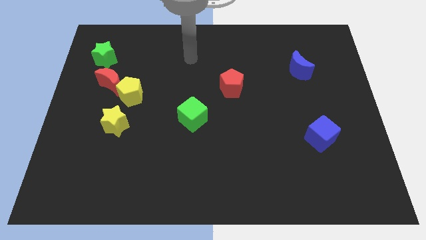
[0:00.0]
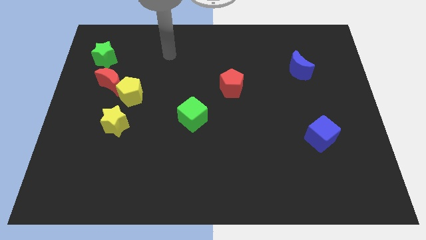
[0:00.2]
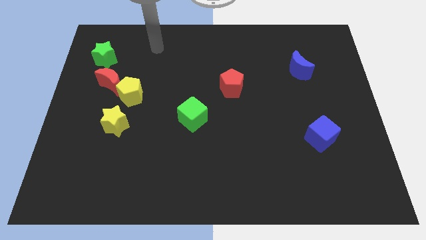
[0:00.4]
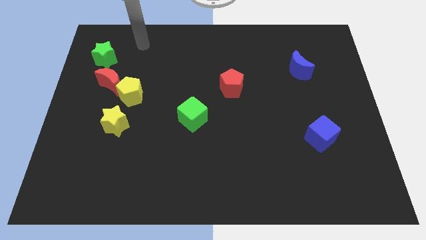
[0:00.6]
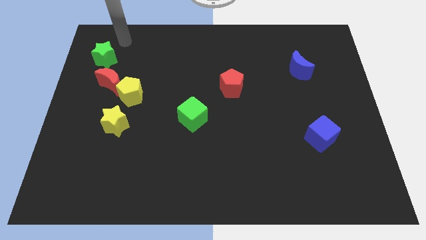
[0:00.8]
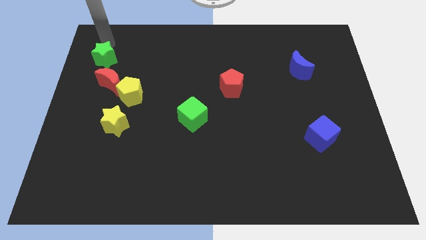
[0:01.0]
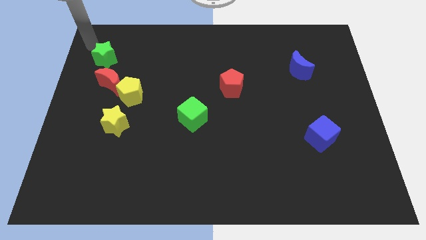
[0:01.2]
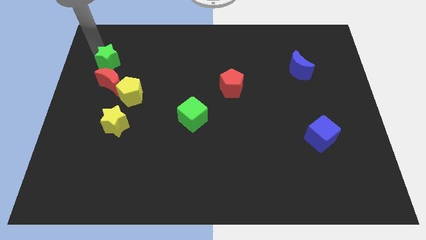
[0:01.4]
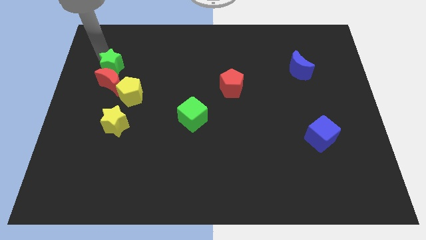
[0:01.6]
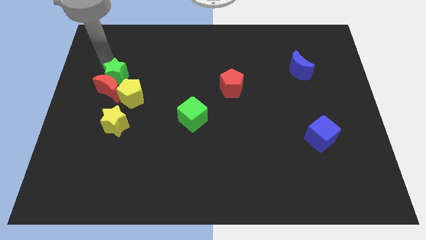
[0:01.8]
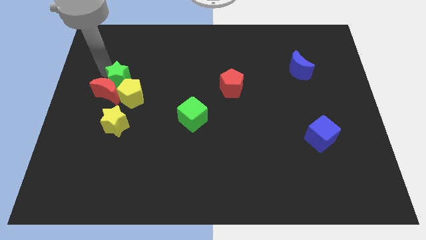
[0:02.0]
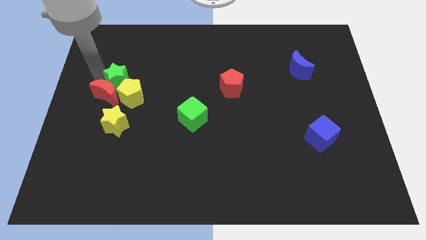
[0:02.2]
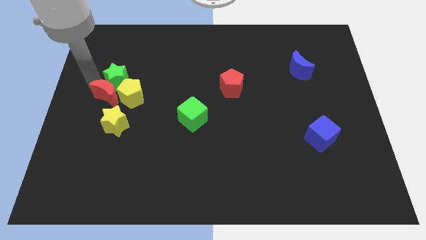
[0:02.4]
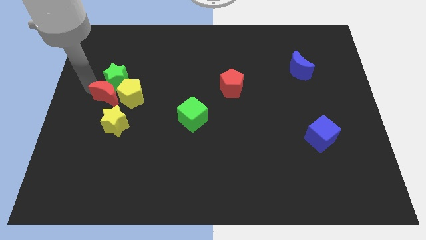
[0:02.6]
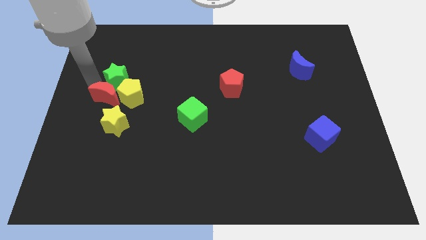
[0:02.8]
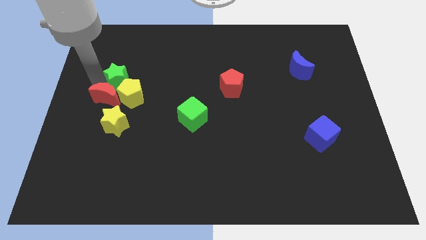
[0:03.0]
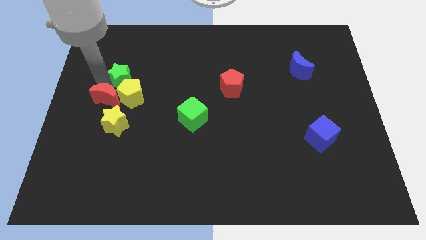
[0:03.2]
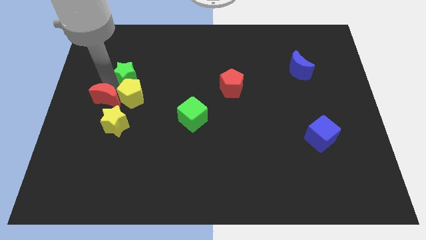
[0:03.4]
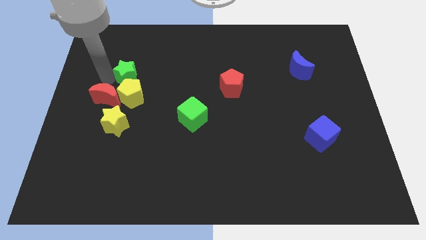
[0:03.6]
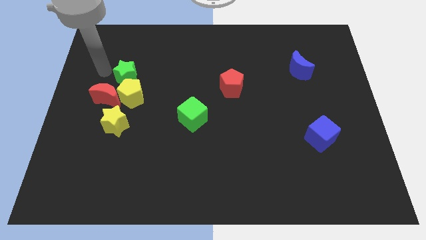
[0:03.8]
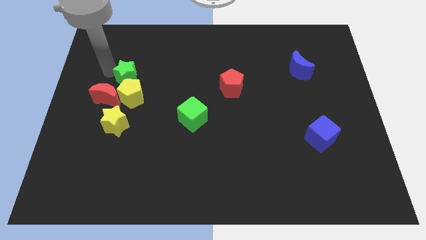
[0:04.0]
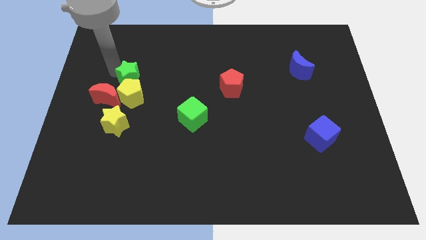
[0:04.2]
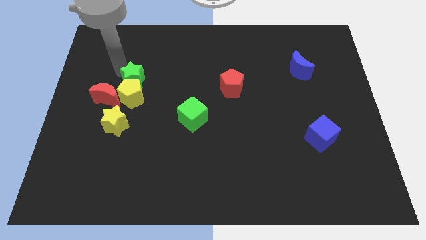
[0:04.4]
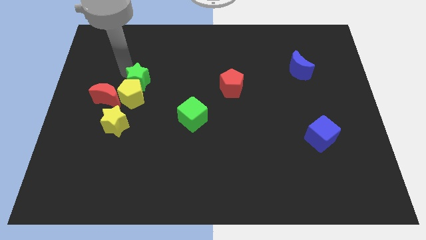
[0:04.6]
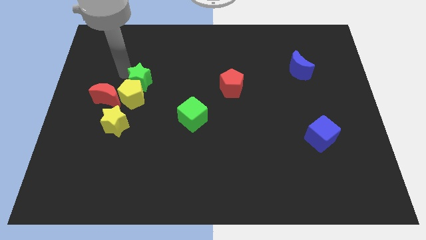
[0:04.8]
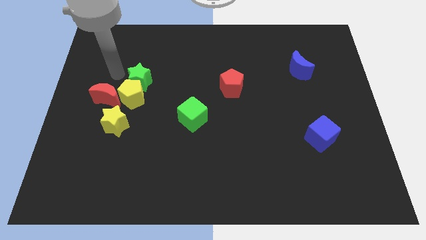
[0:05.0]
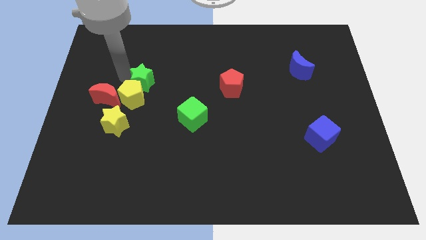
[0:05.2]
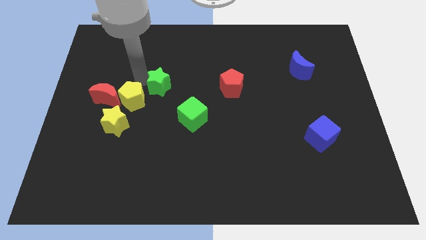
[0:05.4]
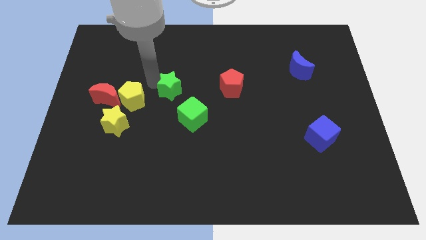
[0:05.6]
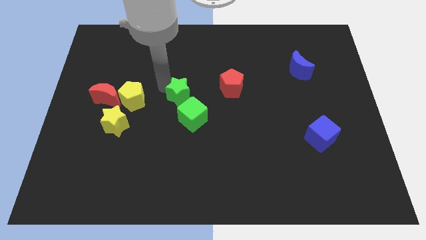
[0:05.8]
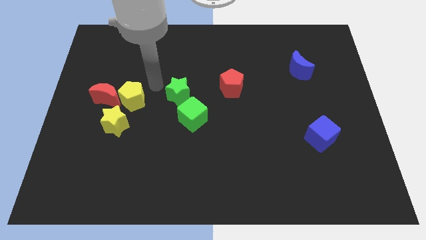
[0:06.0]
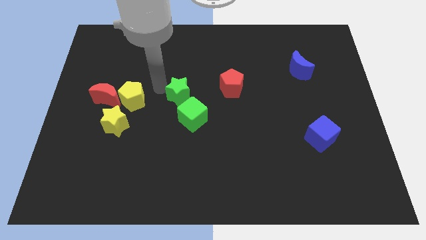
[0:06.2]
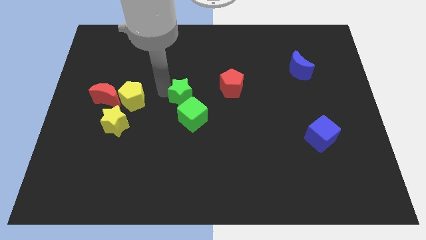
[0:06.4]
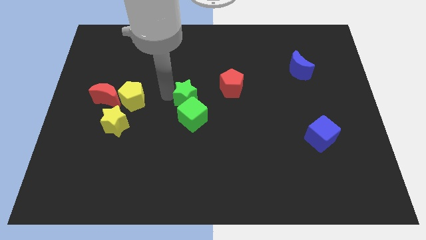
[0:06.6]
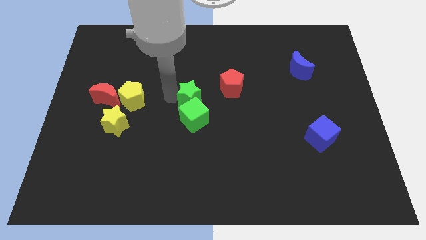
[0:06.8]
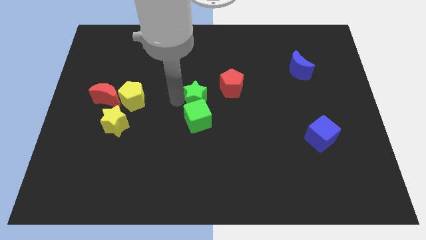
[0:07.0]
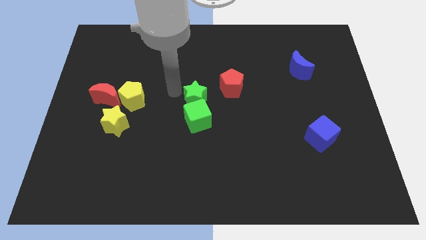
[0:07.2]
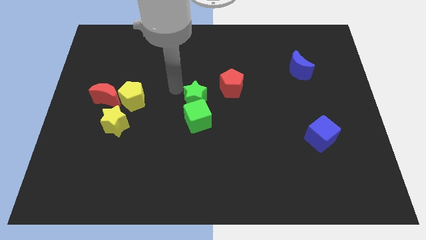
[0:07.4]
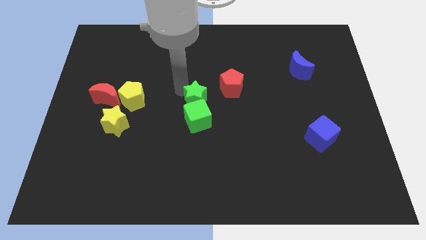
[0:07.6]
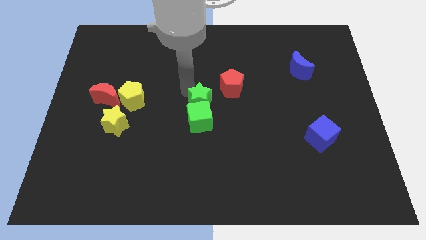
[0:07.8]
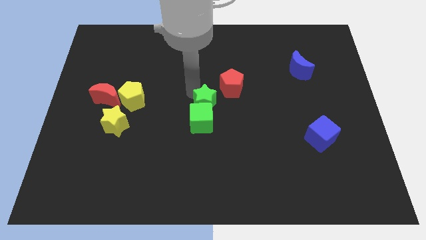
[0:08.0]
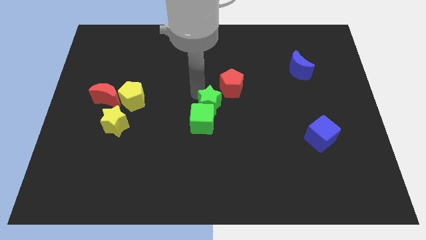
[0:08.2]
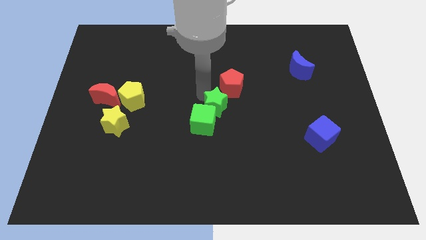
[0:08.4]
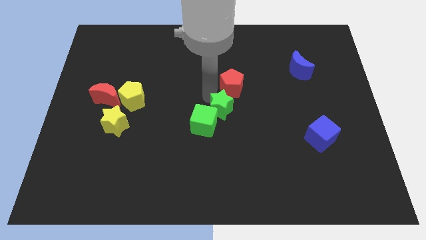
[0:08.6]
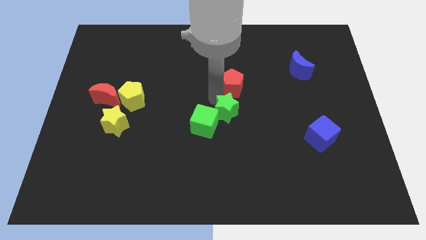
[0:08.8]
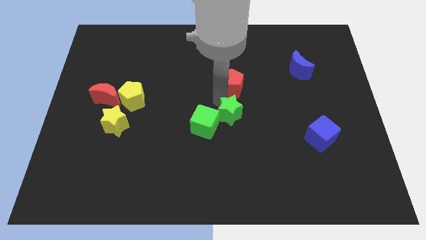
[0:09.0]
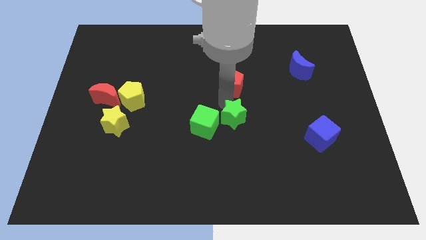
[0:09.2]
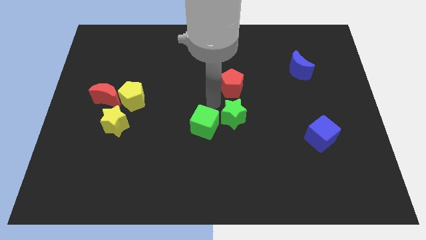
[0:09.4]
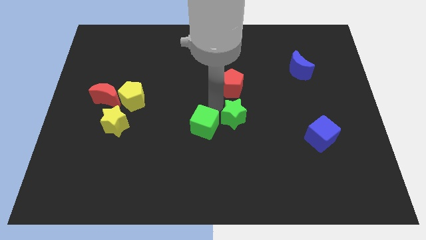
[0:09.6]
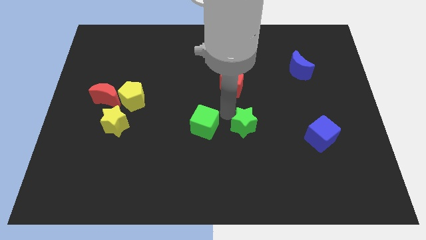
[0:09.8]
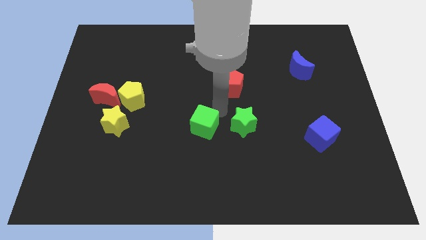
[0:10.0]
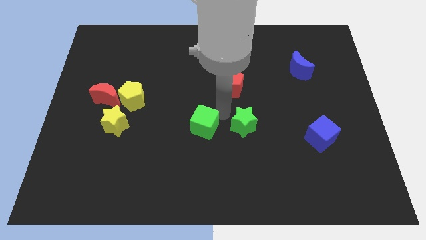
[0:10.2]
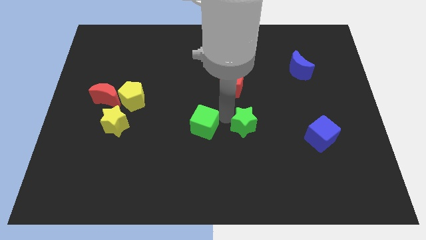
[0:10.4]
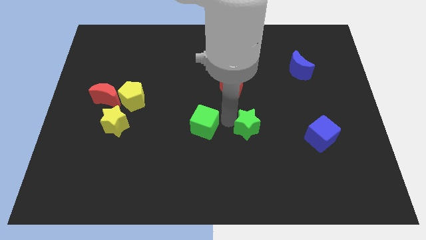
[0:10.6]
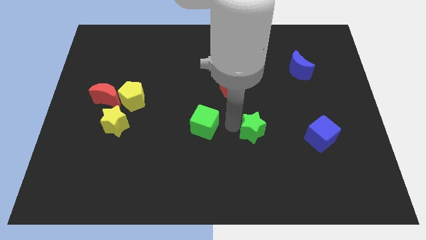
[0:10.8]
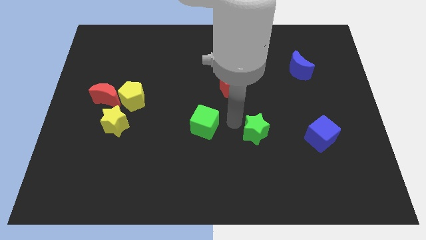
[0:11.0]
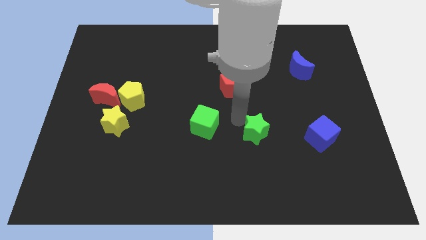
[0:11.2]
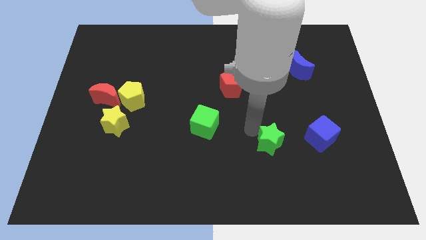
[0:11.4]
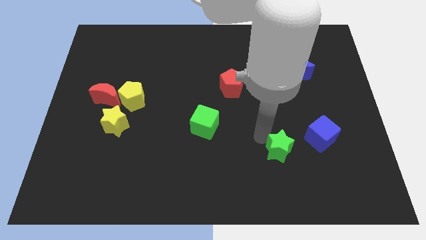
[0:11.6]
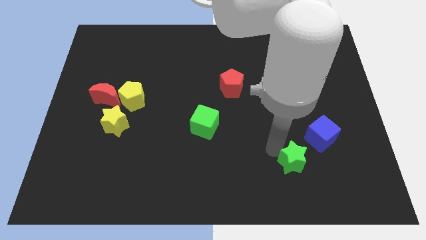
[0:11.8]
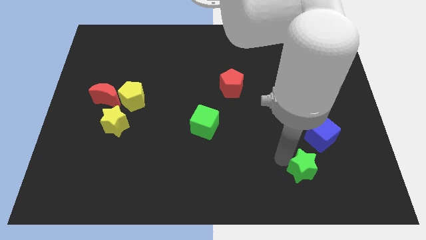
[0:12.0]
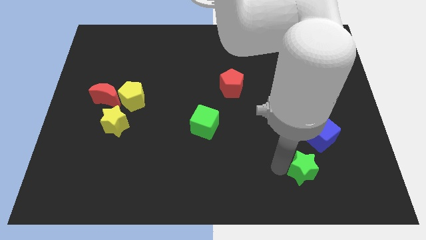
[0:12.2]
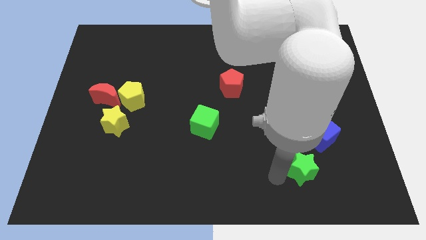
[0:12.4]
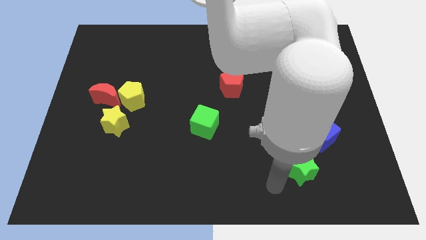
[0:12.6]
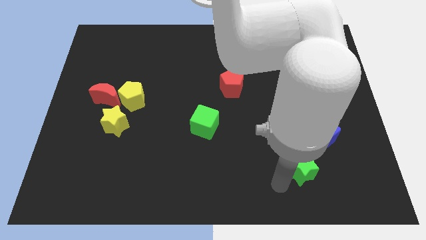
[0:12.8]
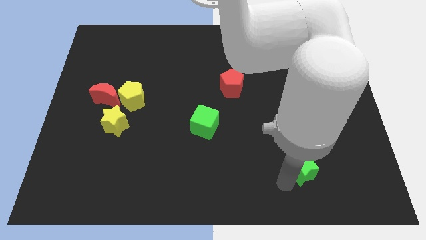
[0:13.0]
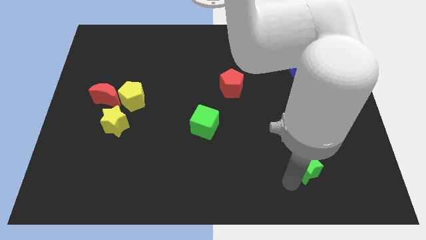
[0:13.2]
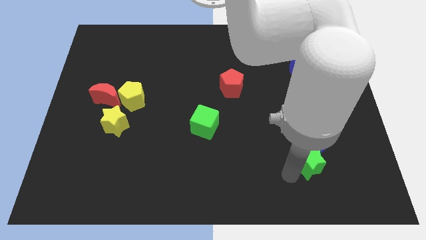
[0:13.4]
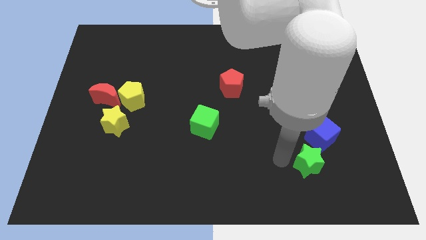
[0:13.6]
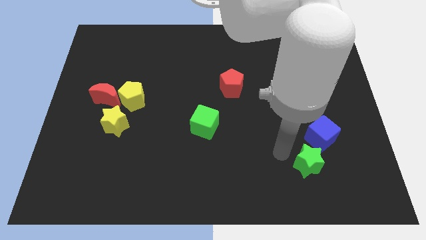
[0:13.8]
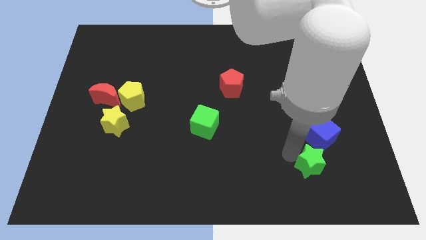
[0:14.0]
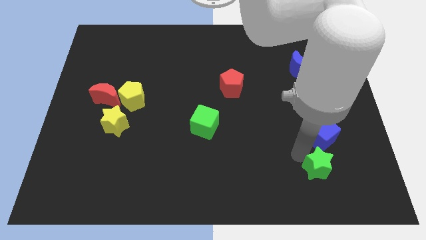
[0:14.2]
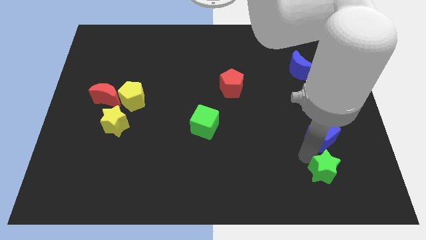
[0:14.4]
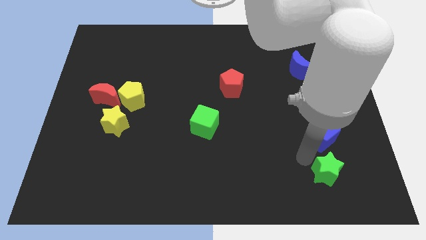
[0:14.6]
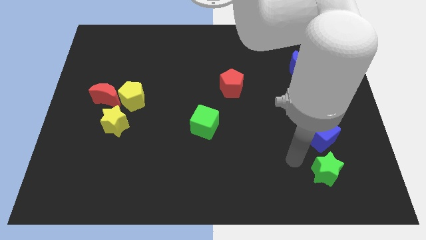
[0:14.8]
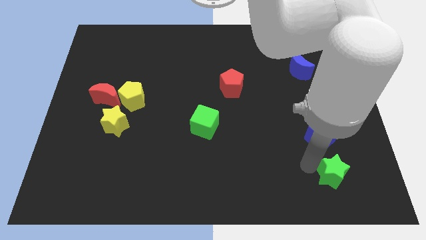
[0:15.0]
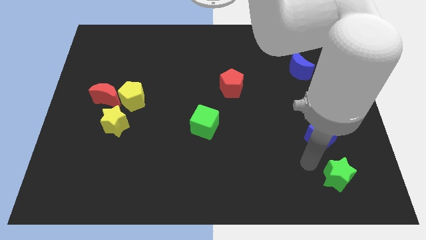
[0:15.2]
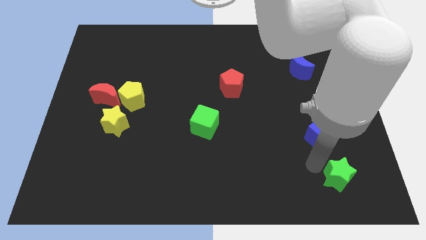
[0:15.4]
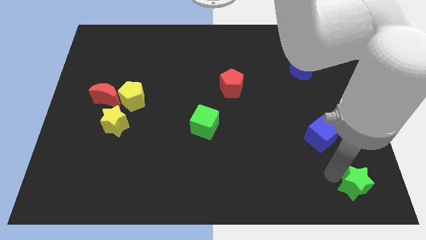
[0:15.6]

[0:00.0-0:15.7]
slide the green star to the bottom right
